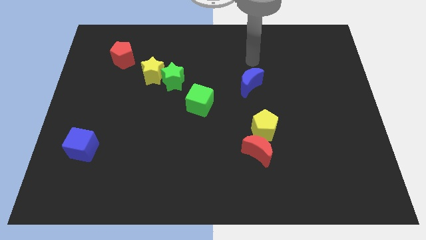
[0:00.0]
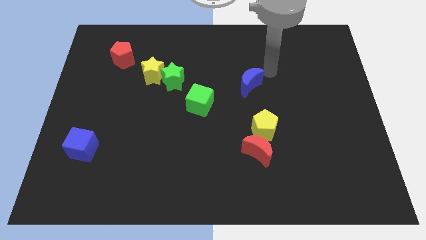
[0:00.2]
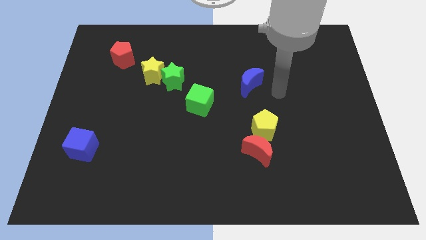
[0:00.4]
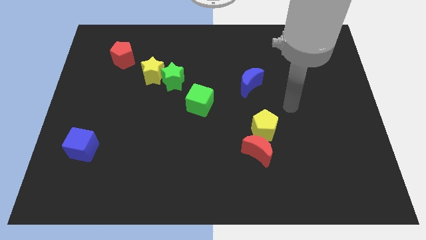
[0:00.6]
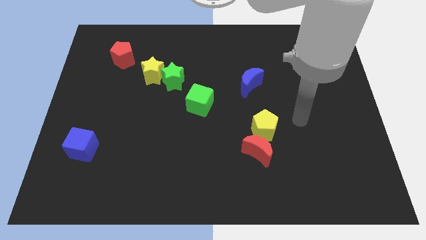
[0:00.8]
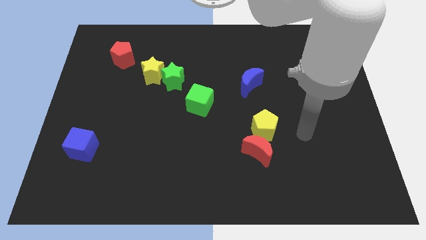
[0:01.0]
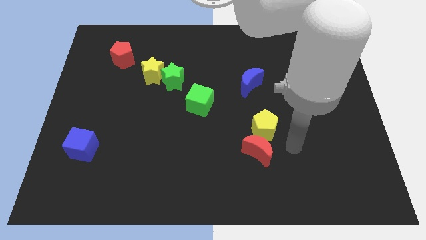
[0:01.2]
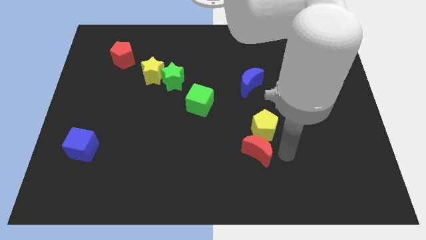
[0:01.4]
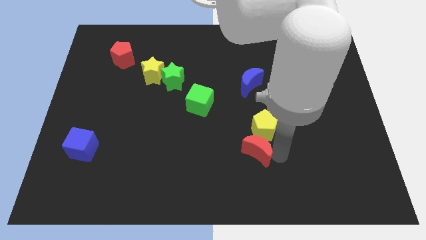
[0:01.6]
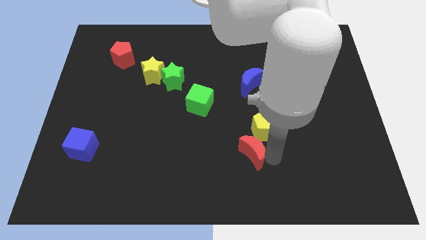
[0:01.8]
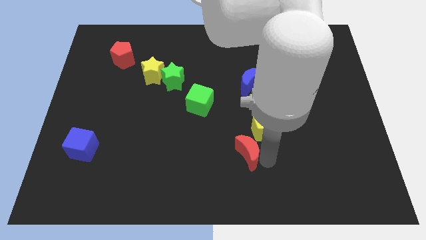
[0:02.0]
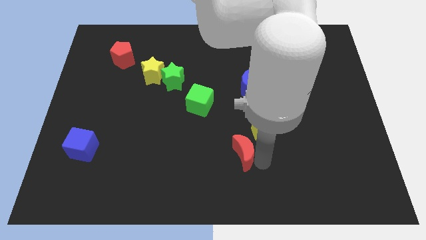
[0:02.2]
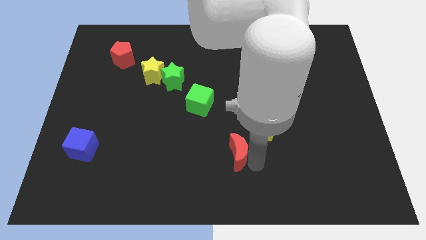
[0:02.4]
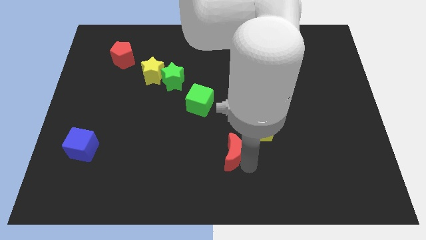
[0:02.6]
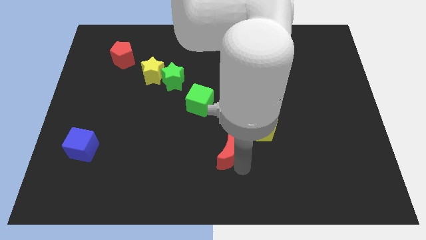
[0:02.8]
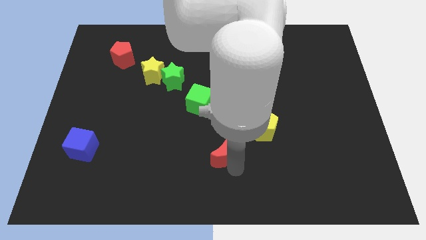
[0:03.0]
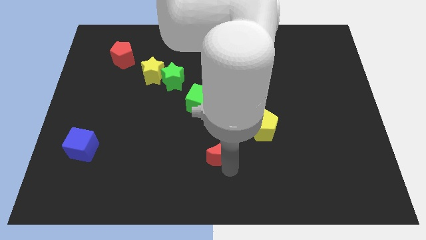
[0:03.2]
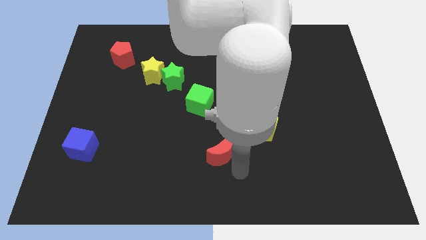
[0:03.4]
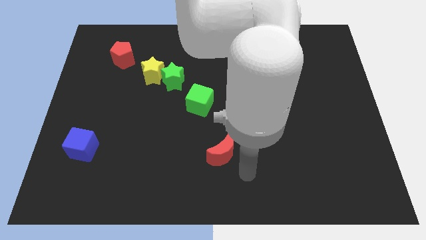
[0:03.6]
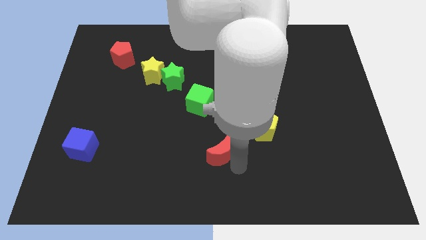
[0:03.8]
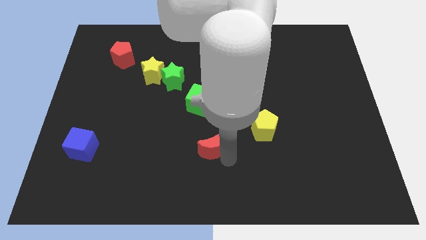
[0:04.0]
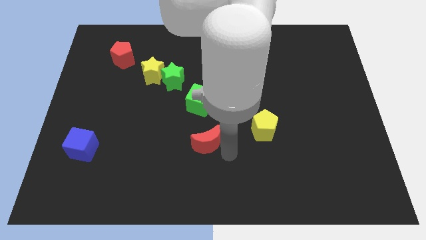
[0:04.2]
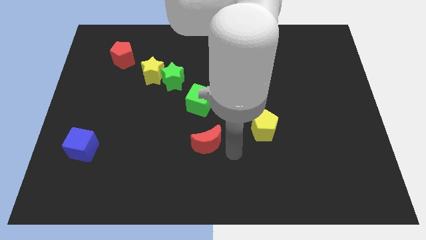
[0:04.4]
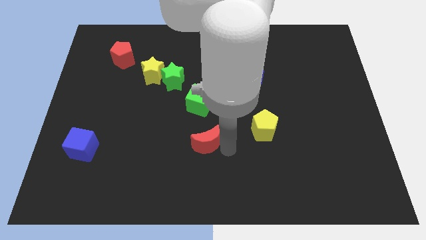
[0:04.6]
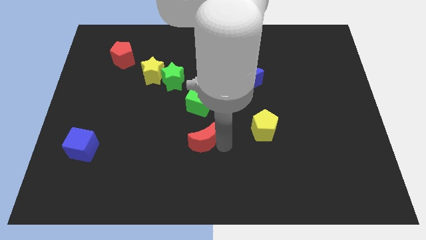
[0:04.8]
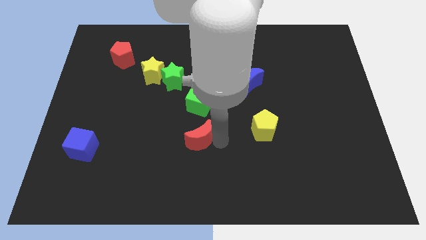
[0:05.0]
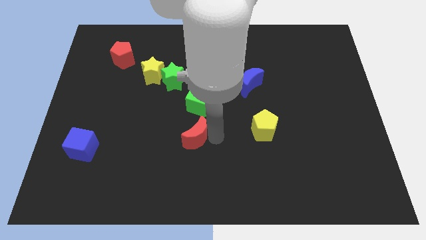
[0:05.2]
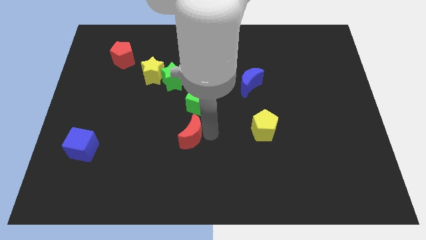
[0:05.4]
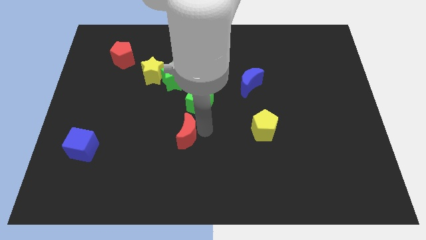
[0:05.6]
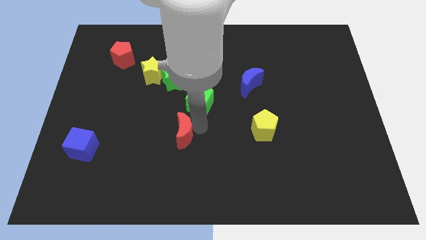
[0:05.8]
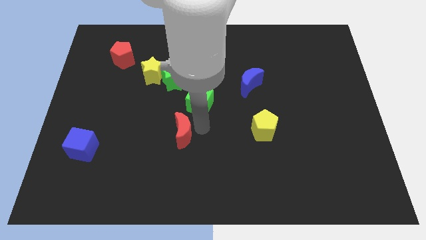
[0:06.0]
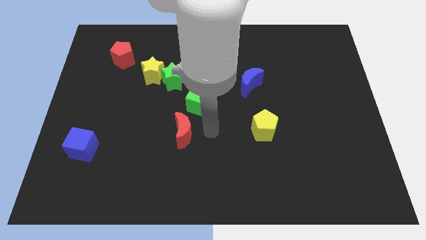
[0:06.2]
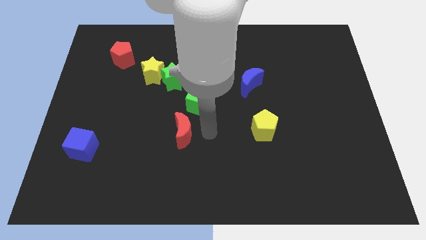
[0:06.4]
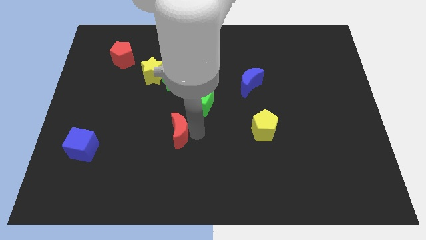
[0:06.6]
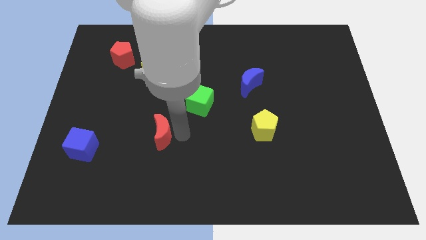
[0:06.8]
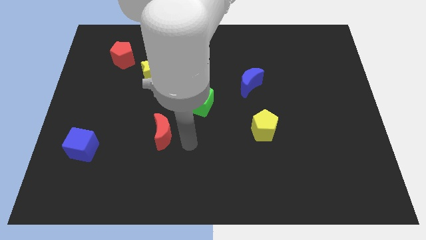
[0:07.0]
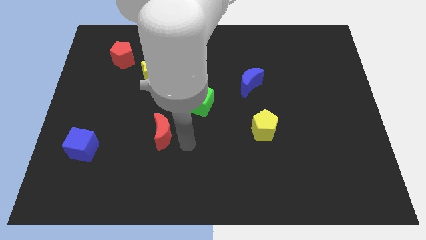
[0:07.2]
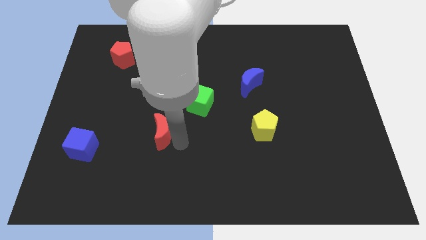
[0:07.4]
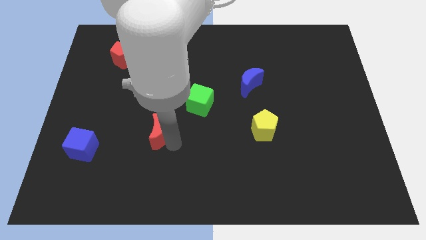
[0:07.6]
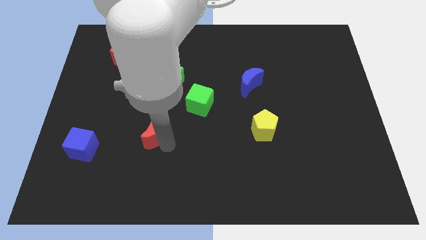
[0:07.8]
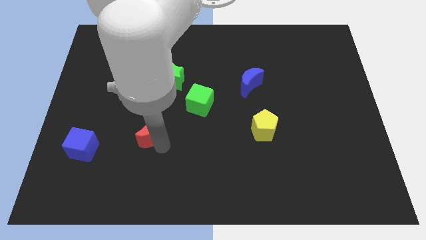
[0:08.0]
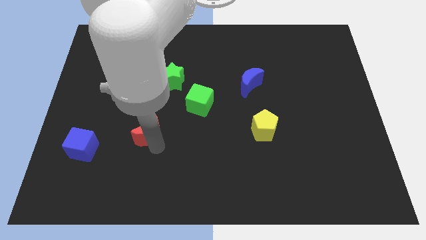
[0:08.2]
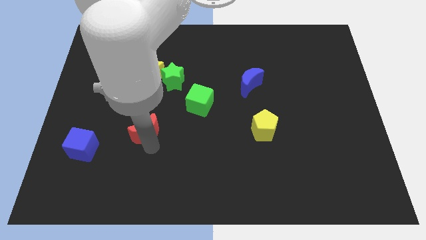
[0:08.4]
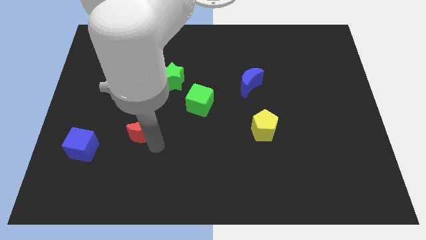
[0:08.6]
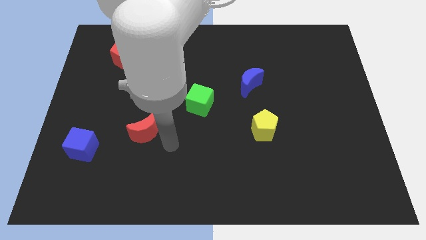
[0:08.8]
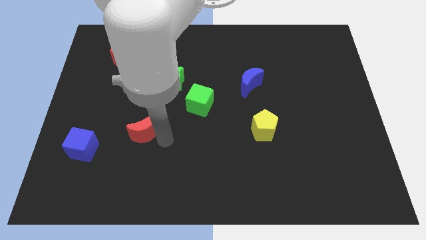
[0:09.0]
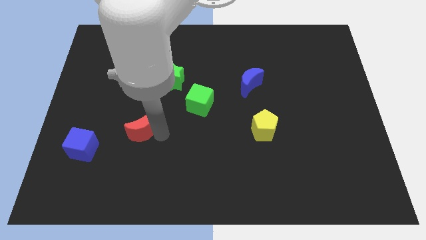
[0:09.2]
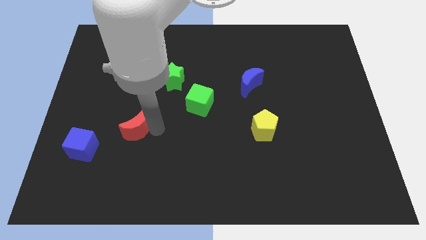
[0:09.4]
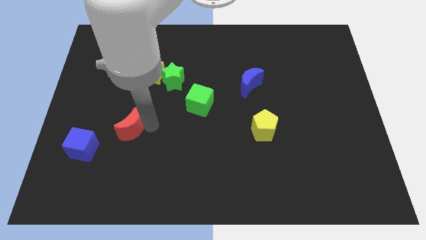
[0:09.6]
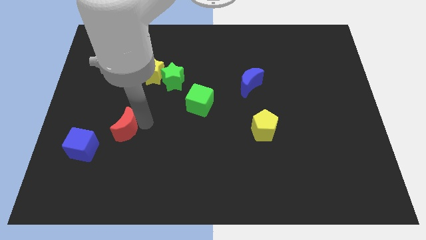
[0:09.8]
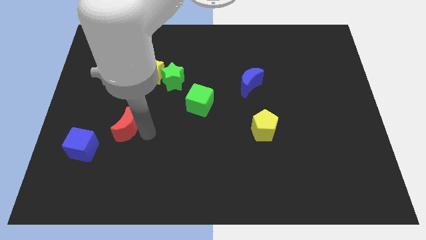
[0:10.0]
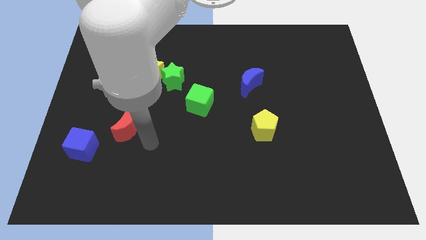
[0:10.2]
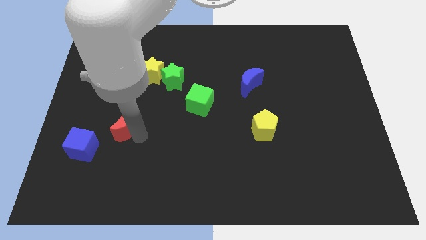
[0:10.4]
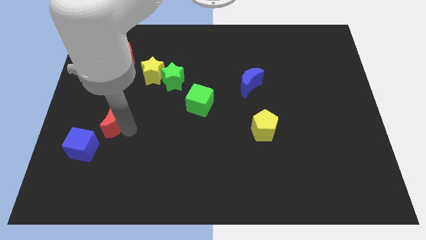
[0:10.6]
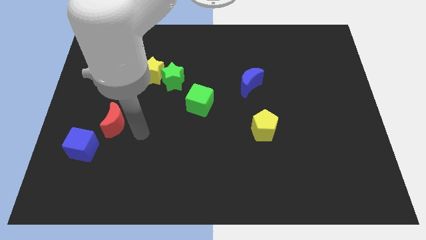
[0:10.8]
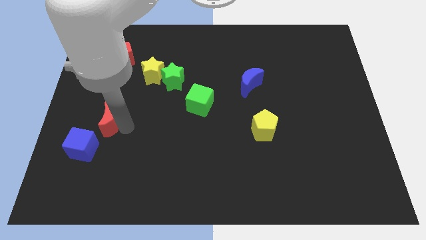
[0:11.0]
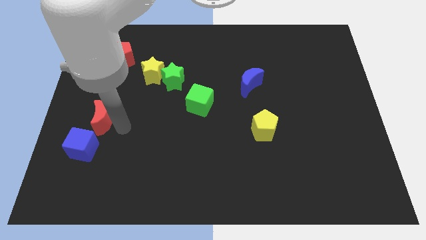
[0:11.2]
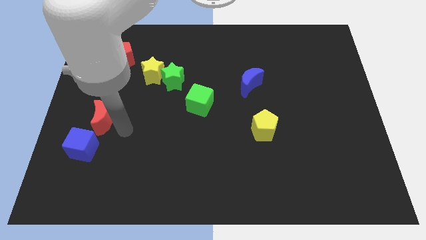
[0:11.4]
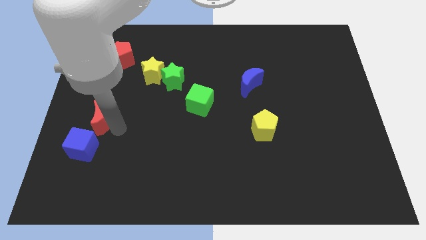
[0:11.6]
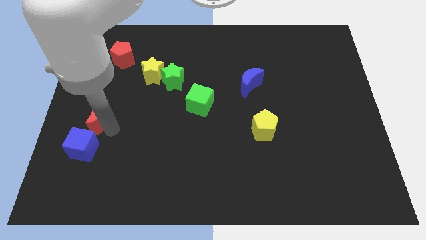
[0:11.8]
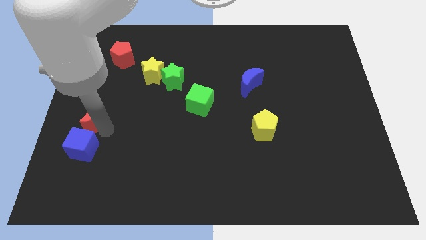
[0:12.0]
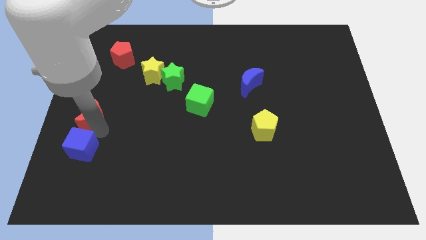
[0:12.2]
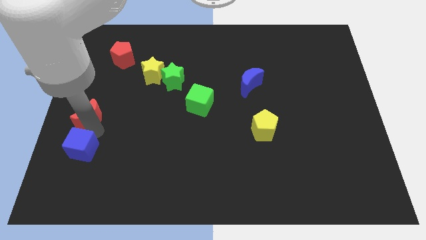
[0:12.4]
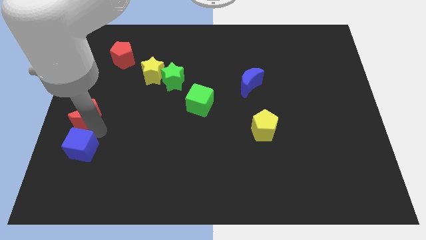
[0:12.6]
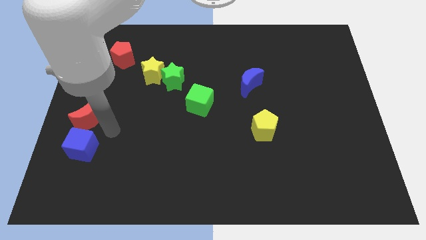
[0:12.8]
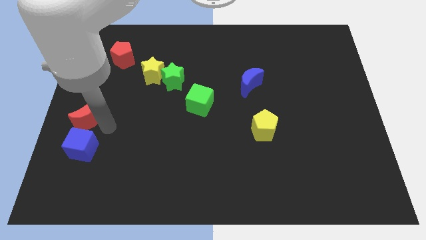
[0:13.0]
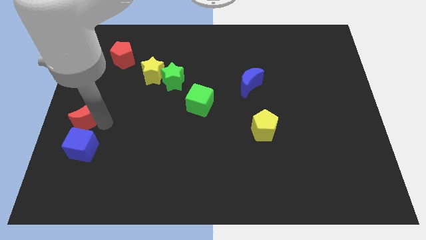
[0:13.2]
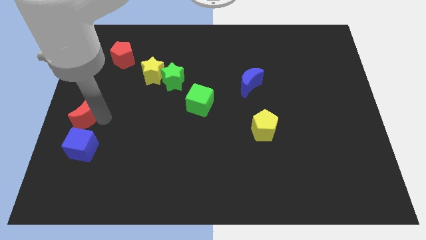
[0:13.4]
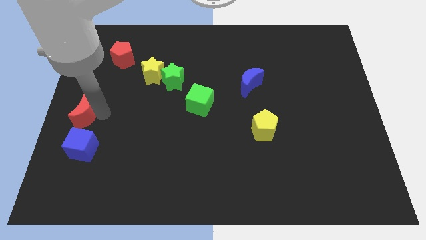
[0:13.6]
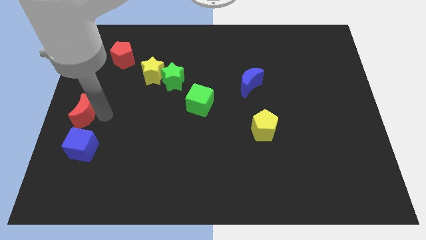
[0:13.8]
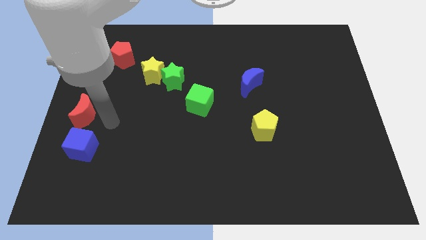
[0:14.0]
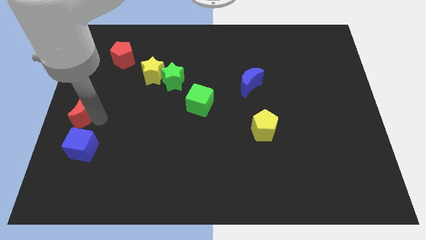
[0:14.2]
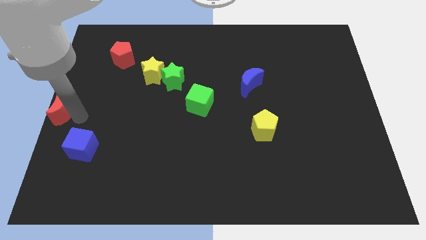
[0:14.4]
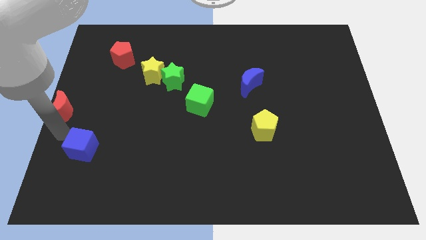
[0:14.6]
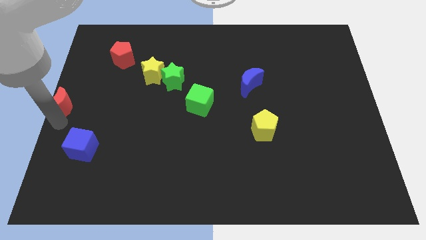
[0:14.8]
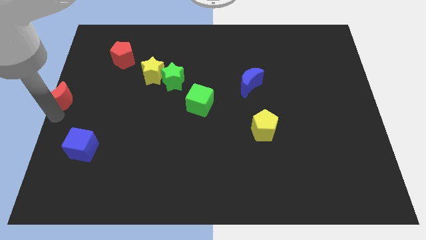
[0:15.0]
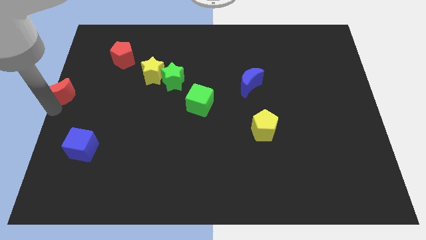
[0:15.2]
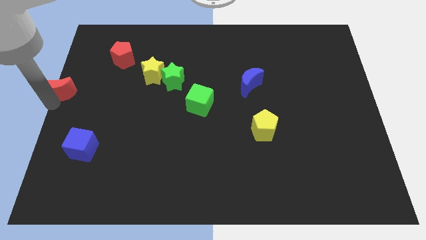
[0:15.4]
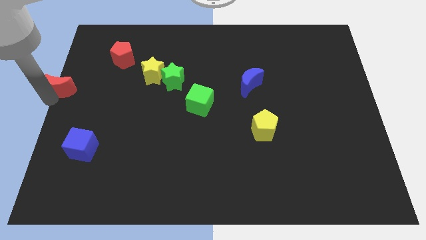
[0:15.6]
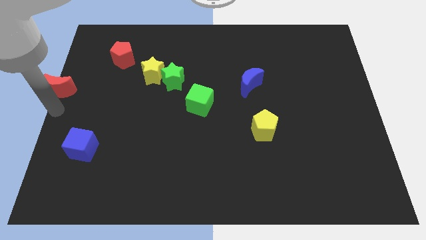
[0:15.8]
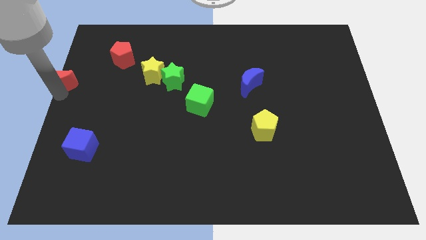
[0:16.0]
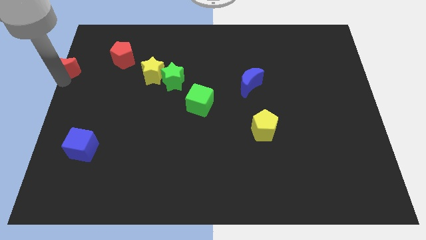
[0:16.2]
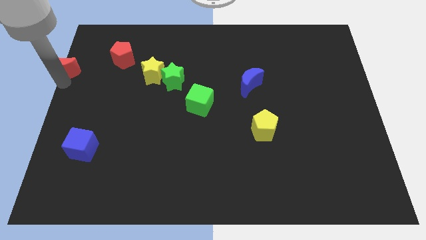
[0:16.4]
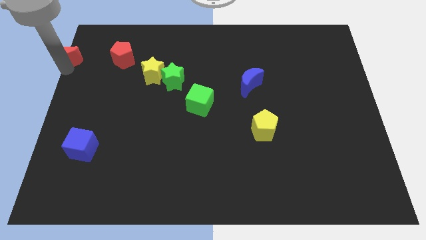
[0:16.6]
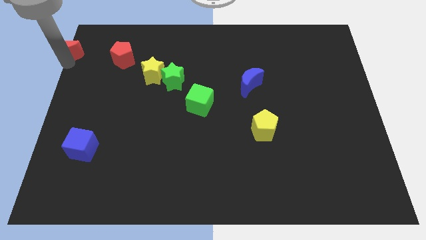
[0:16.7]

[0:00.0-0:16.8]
push the red moon to the top left
